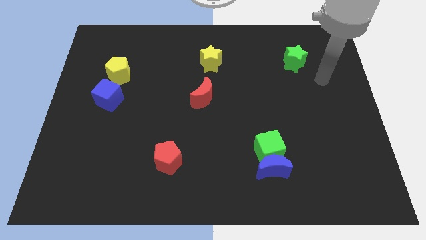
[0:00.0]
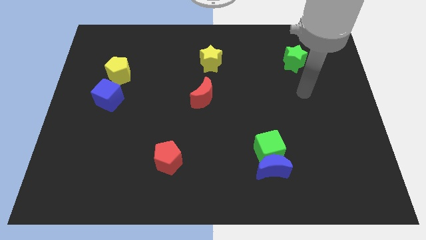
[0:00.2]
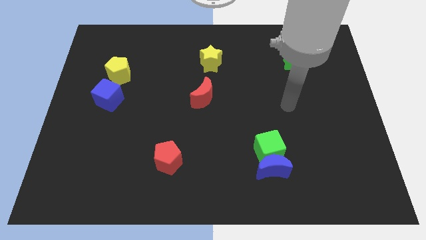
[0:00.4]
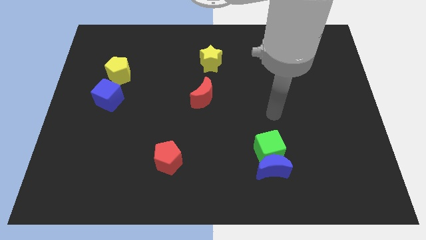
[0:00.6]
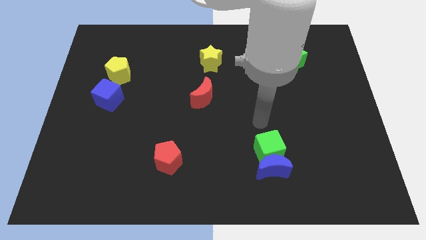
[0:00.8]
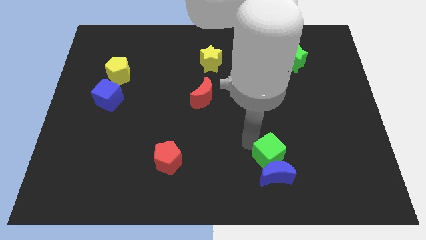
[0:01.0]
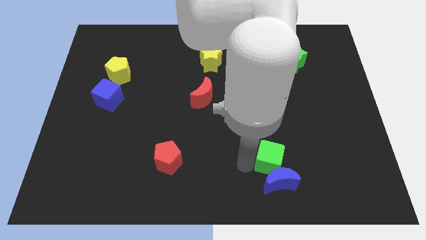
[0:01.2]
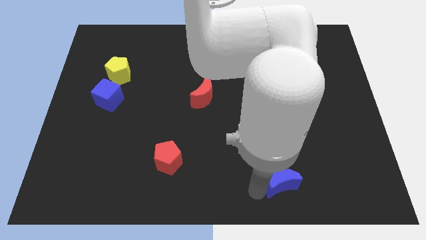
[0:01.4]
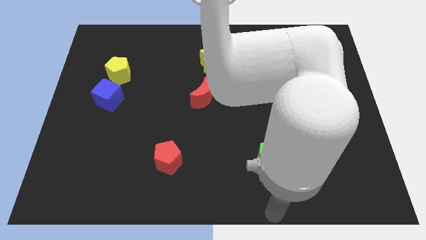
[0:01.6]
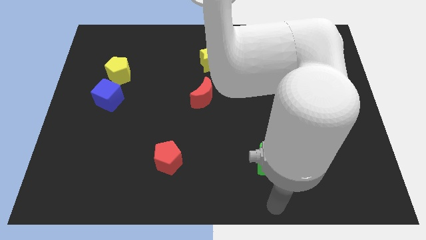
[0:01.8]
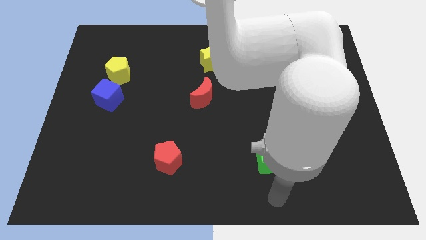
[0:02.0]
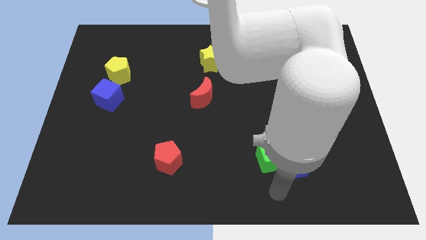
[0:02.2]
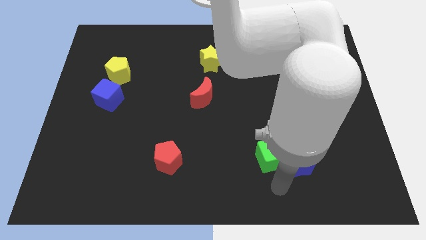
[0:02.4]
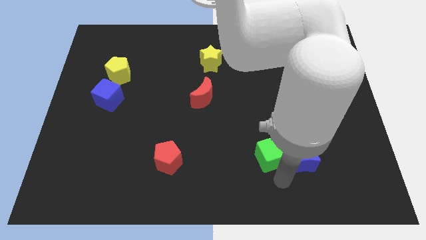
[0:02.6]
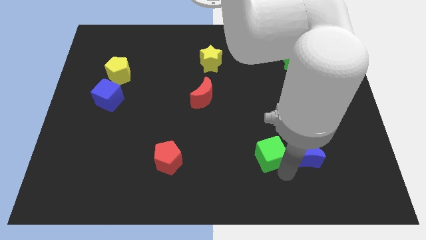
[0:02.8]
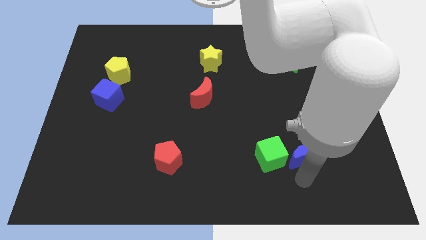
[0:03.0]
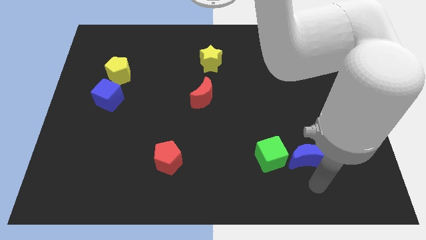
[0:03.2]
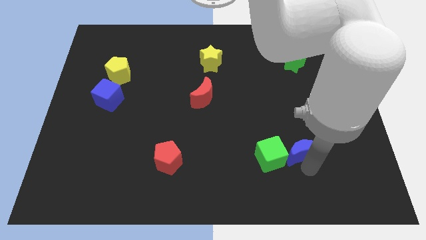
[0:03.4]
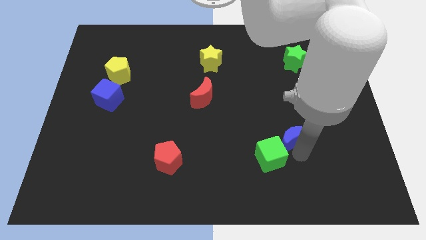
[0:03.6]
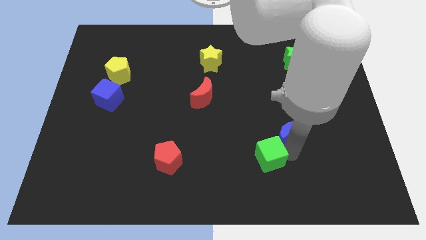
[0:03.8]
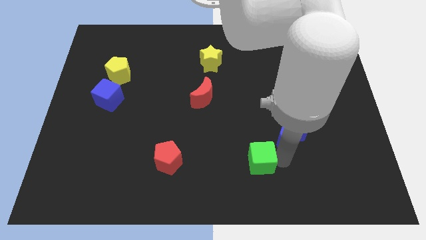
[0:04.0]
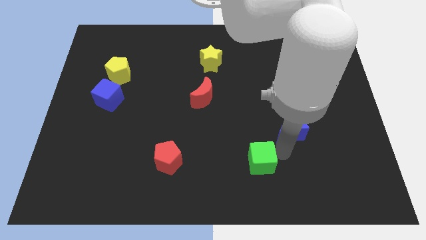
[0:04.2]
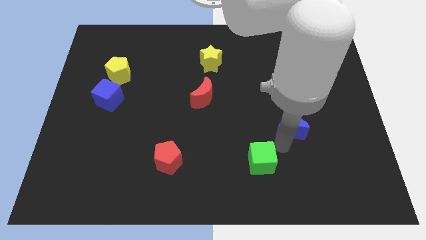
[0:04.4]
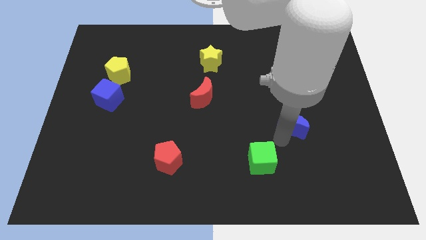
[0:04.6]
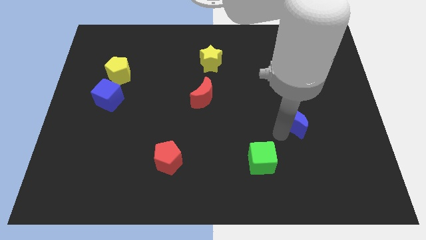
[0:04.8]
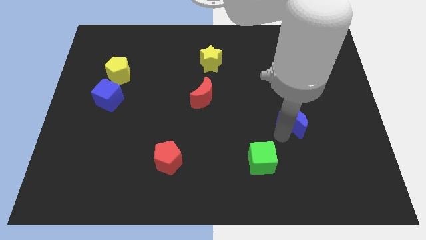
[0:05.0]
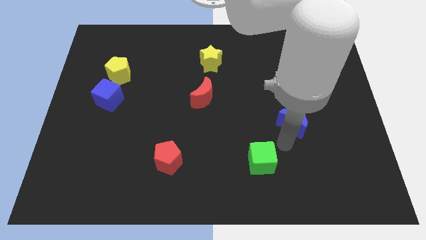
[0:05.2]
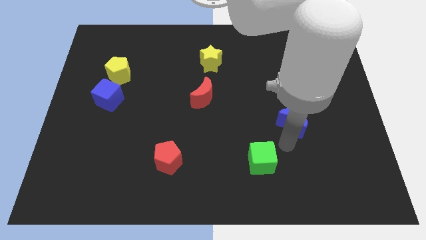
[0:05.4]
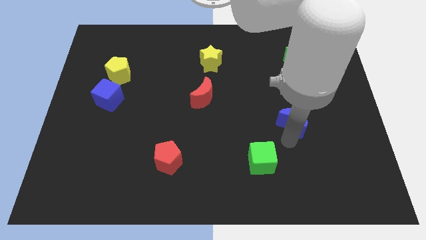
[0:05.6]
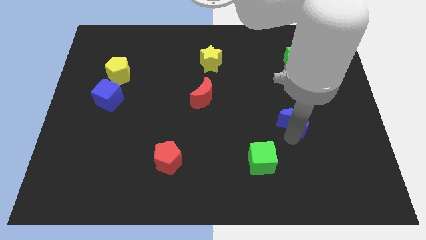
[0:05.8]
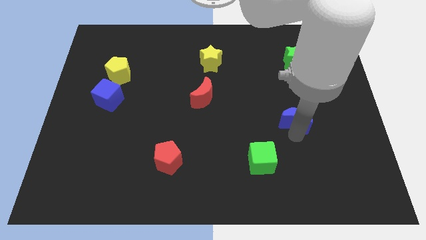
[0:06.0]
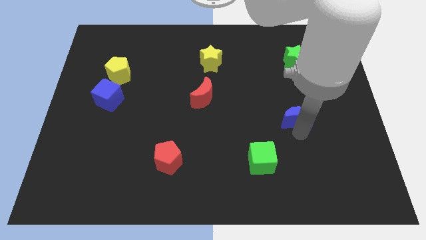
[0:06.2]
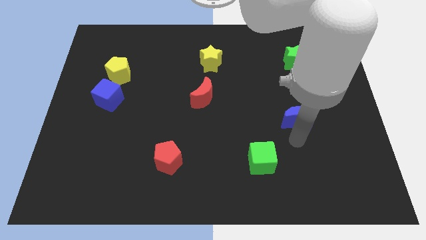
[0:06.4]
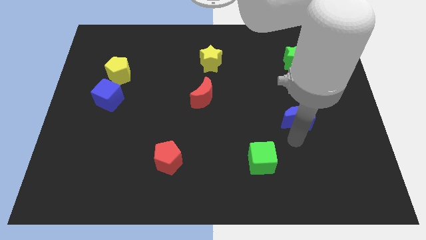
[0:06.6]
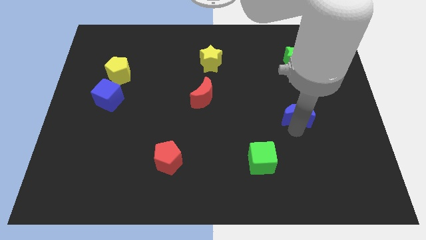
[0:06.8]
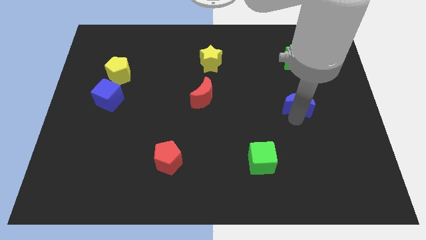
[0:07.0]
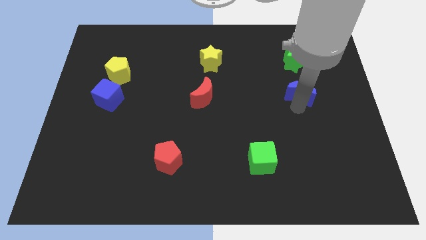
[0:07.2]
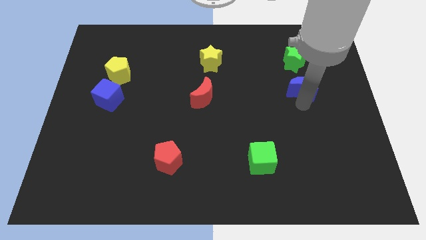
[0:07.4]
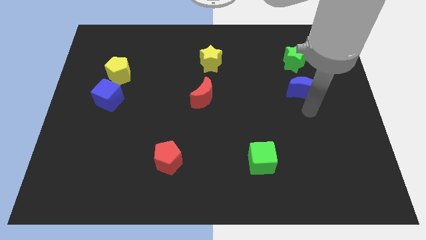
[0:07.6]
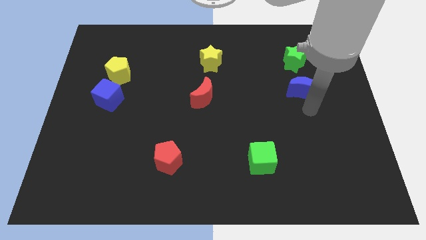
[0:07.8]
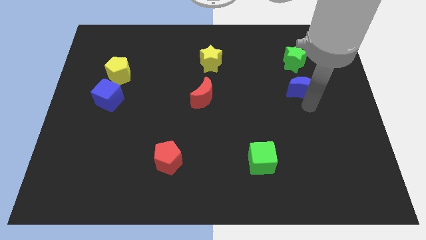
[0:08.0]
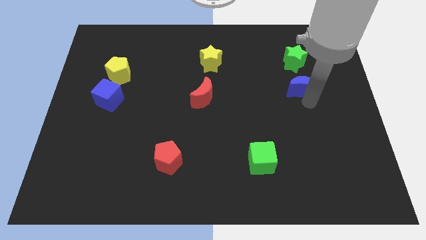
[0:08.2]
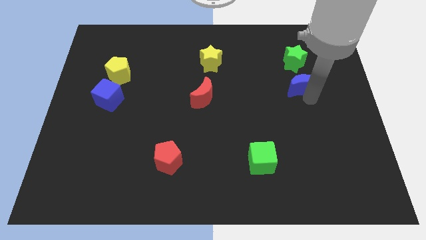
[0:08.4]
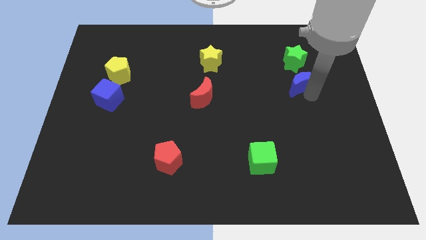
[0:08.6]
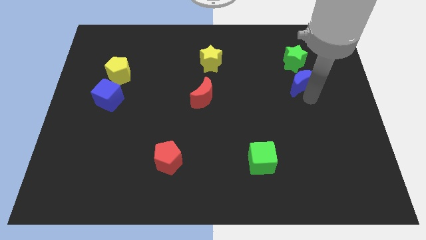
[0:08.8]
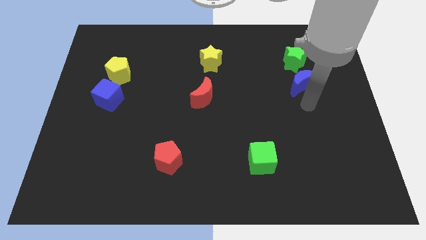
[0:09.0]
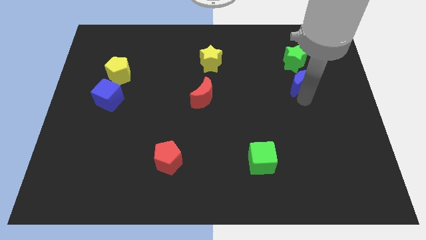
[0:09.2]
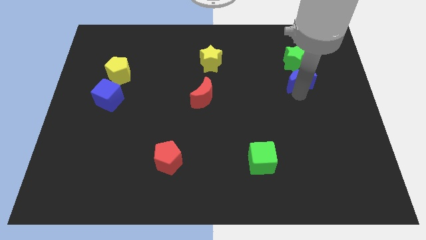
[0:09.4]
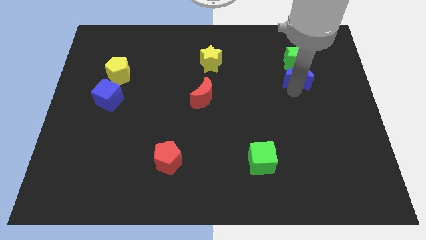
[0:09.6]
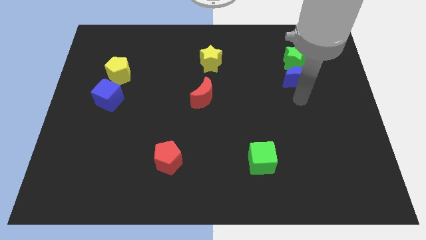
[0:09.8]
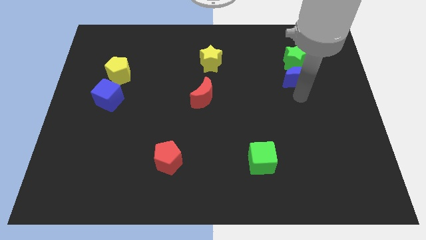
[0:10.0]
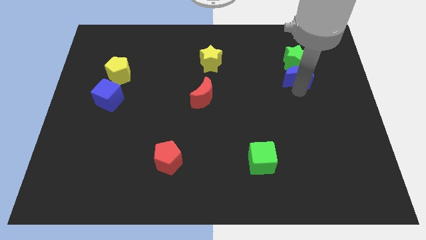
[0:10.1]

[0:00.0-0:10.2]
put the blue moon next to the green star

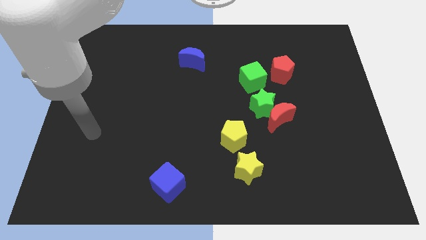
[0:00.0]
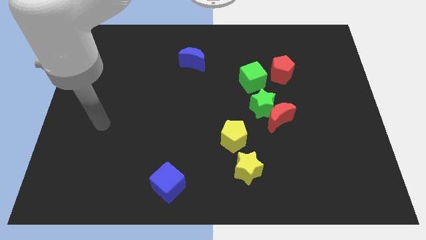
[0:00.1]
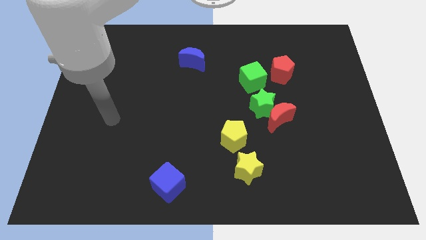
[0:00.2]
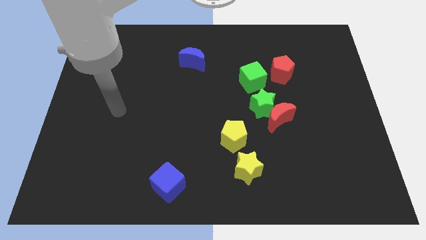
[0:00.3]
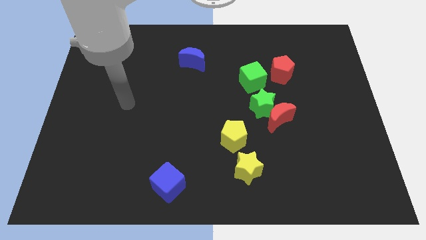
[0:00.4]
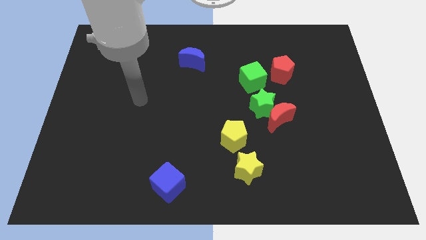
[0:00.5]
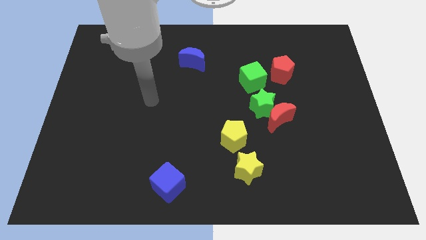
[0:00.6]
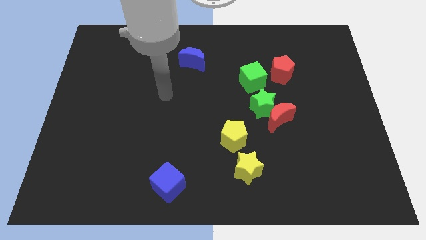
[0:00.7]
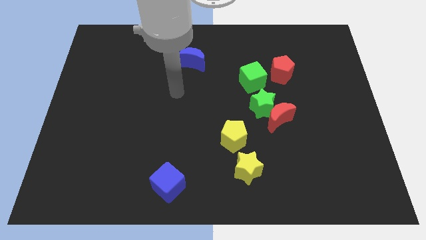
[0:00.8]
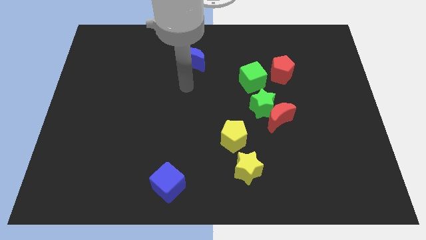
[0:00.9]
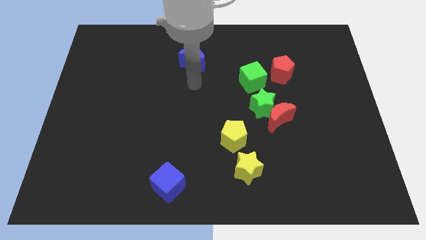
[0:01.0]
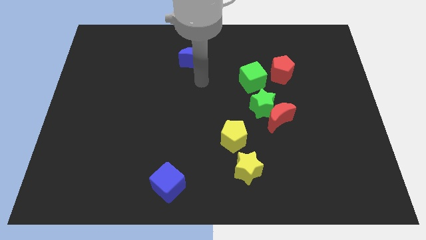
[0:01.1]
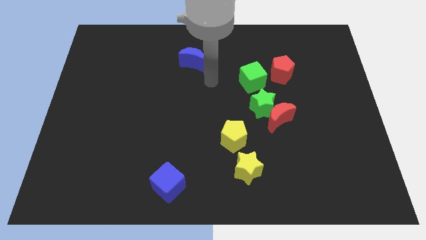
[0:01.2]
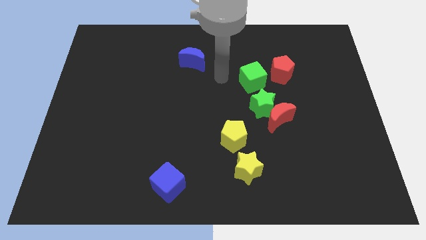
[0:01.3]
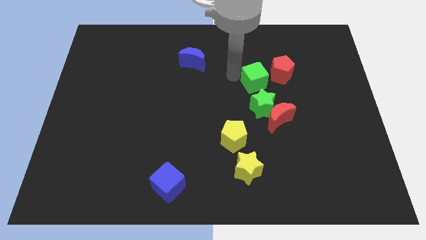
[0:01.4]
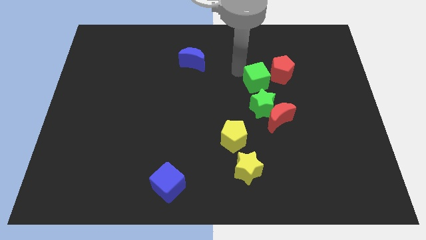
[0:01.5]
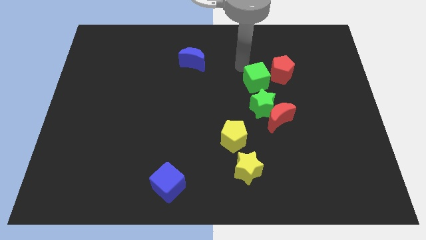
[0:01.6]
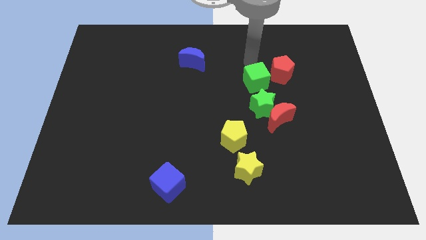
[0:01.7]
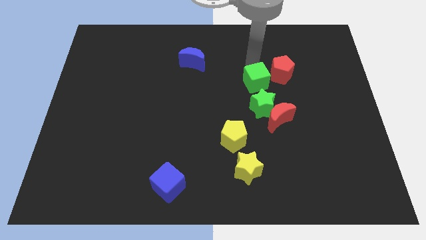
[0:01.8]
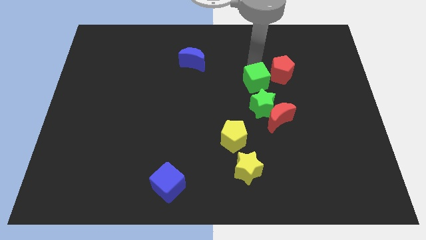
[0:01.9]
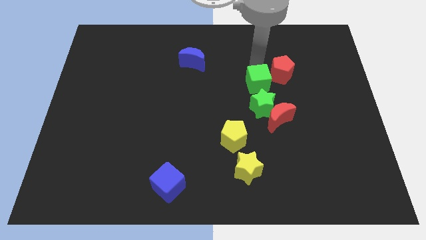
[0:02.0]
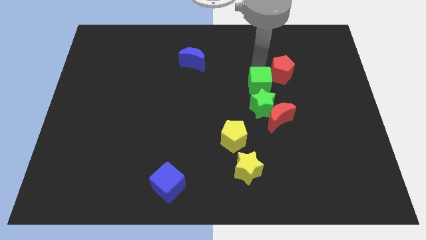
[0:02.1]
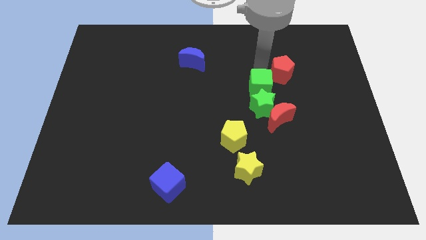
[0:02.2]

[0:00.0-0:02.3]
put the green cube towards the green star
